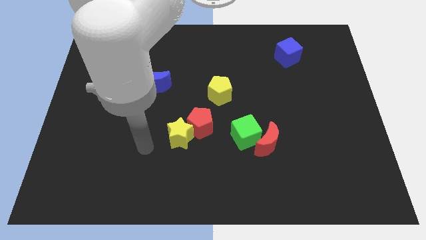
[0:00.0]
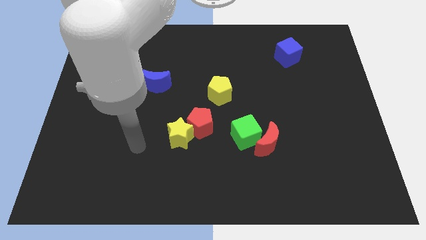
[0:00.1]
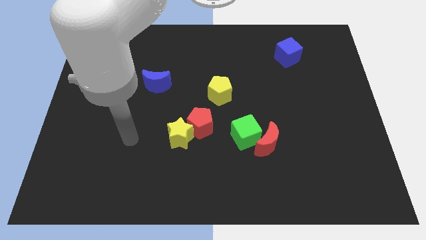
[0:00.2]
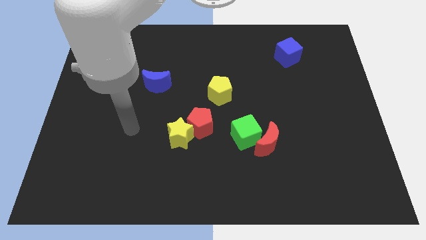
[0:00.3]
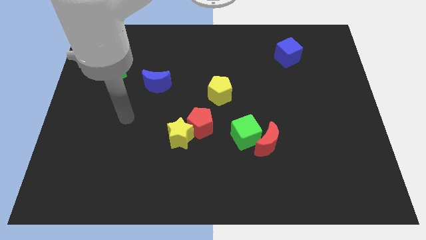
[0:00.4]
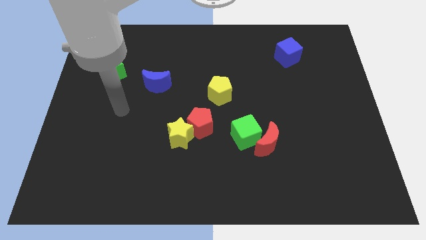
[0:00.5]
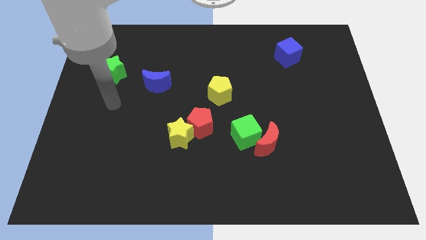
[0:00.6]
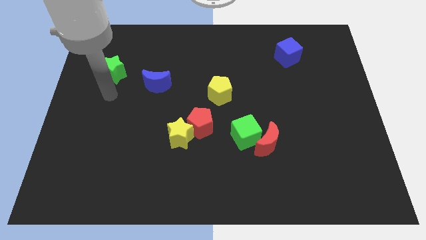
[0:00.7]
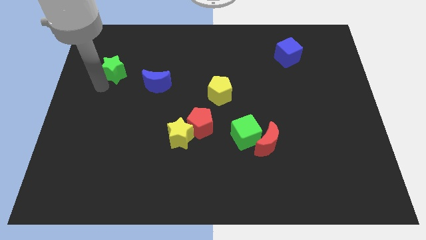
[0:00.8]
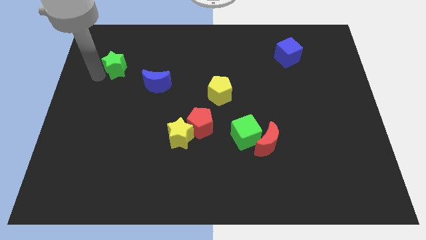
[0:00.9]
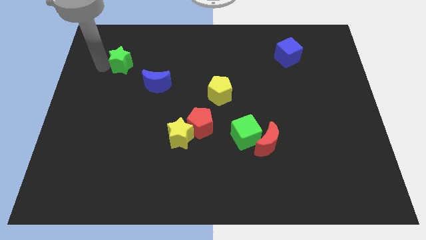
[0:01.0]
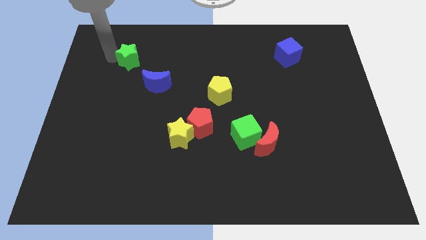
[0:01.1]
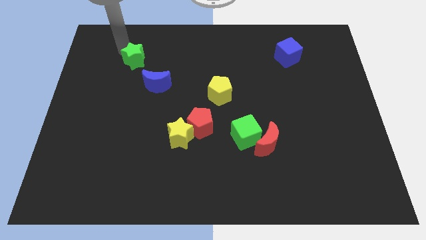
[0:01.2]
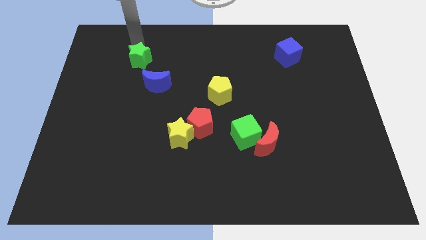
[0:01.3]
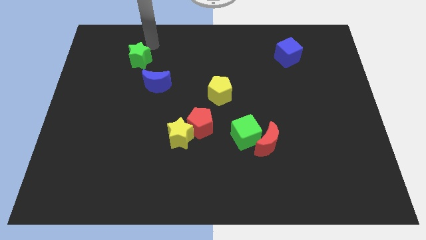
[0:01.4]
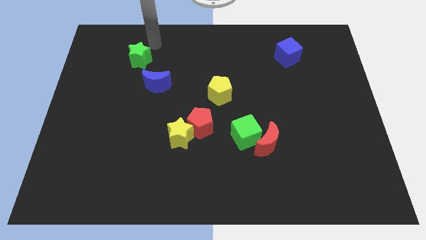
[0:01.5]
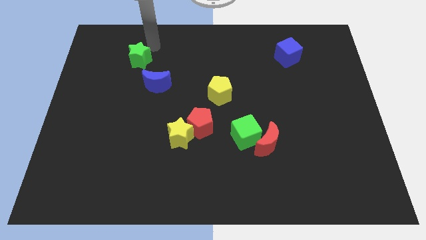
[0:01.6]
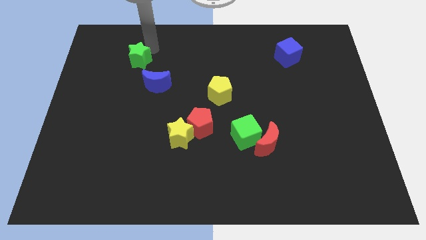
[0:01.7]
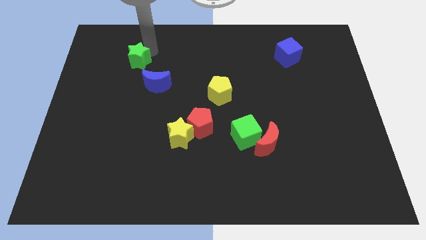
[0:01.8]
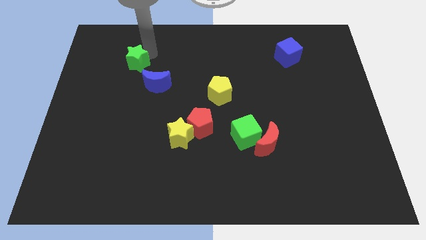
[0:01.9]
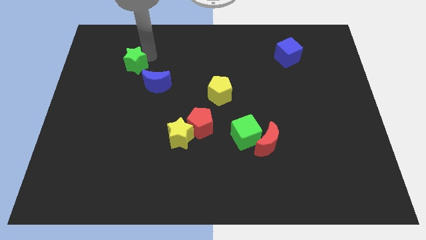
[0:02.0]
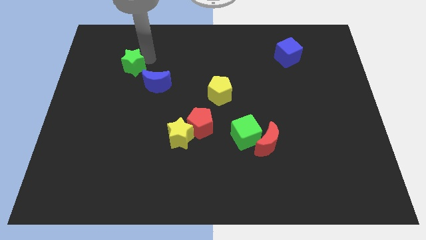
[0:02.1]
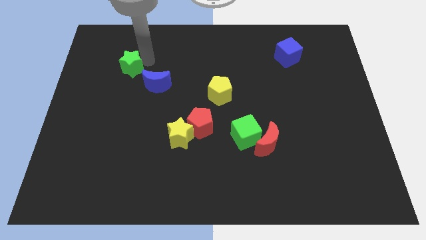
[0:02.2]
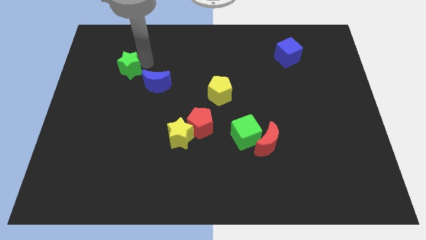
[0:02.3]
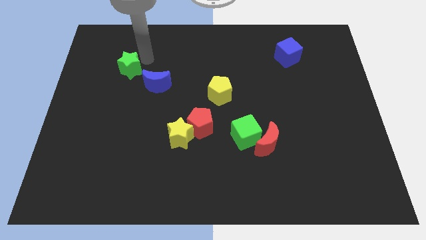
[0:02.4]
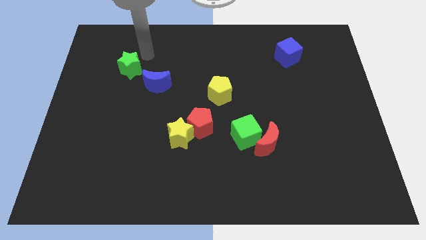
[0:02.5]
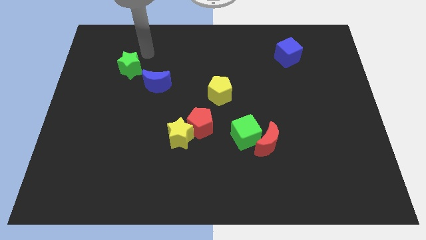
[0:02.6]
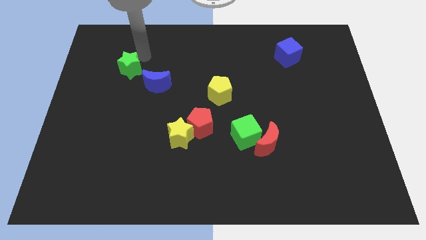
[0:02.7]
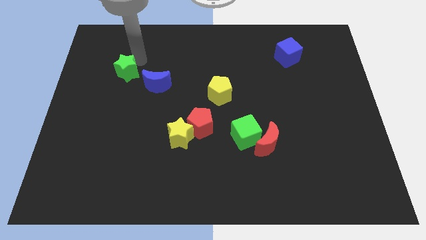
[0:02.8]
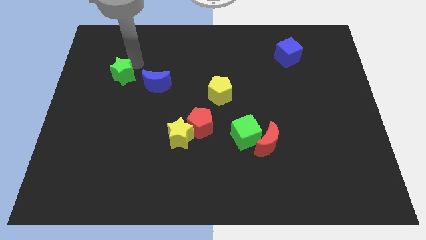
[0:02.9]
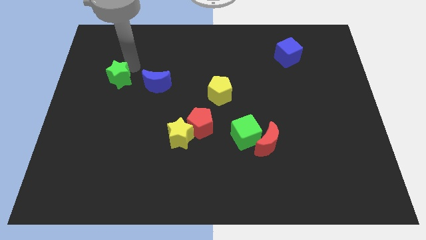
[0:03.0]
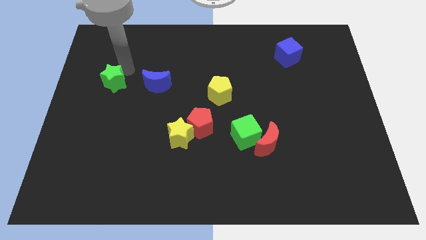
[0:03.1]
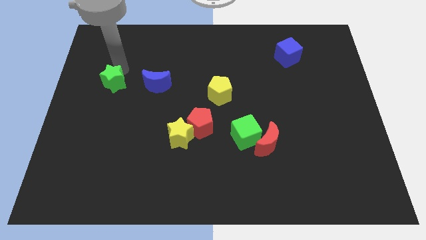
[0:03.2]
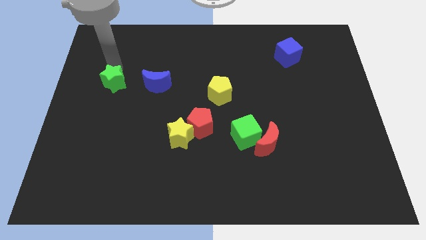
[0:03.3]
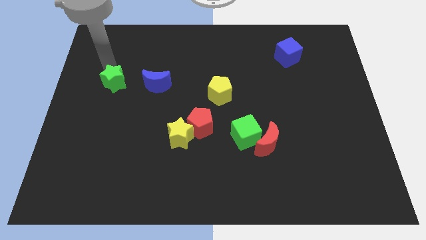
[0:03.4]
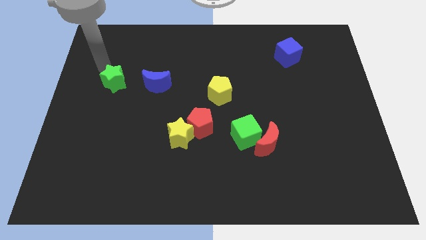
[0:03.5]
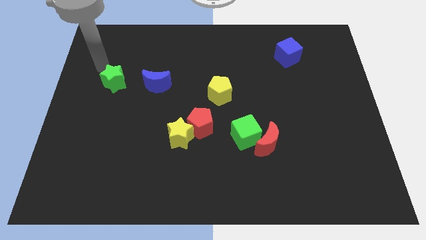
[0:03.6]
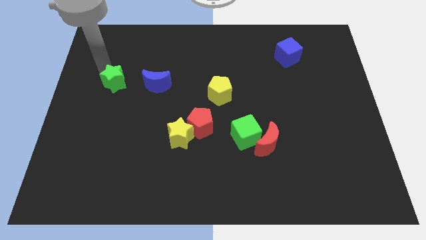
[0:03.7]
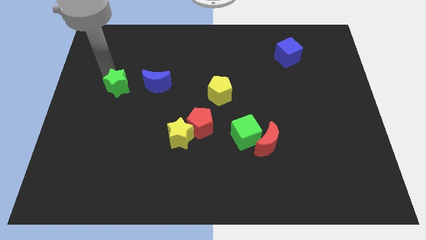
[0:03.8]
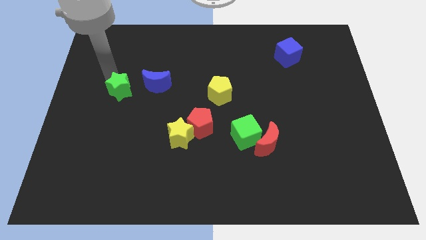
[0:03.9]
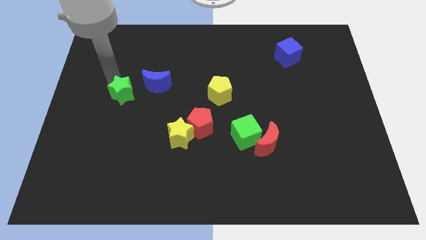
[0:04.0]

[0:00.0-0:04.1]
slide the green star down and then to the right somewhat

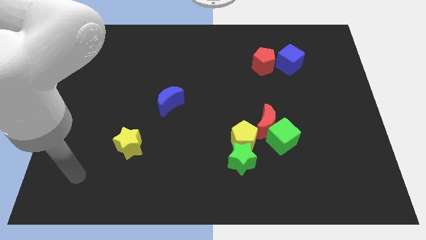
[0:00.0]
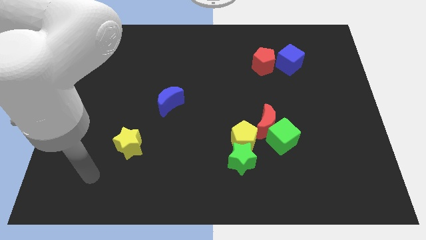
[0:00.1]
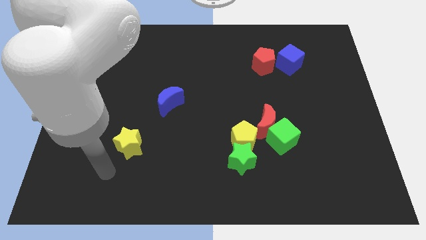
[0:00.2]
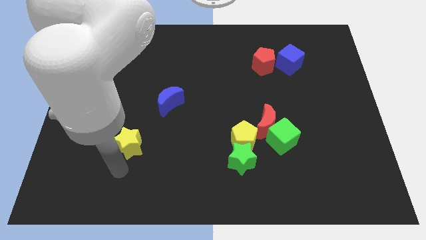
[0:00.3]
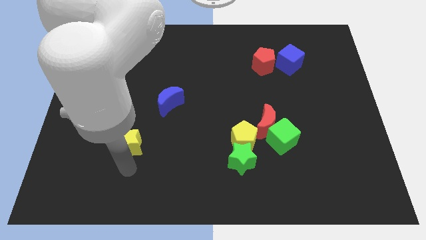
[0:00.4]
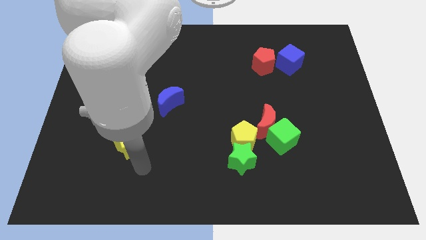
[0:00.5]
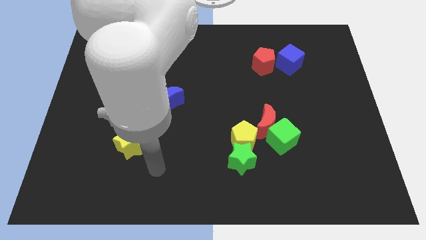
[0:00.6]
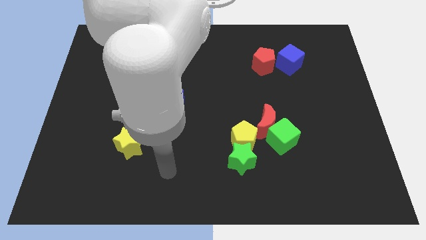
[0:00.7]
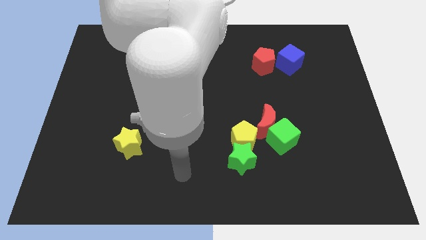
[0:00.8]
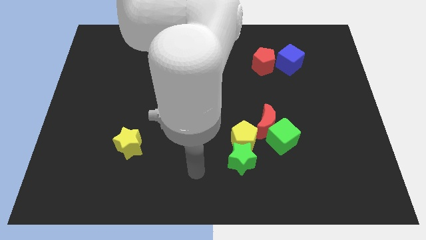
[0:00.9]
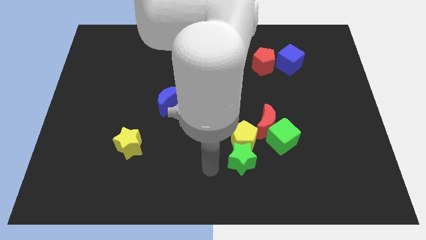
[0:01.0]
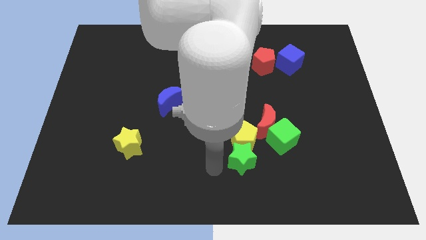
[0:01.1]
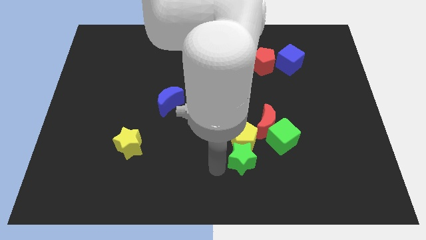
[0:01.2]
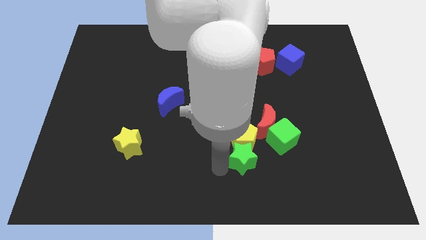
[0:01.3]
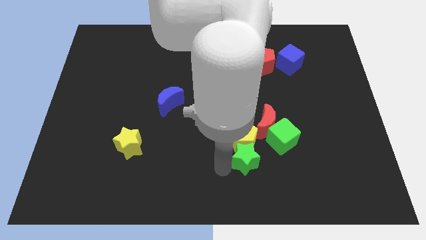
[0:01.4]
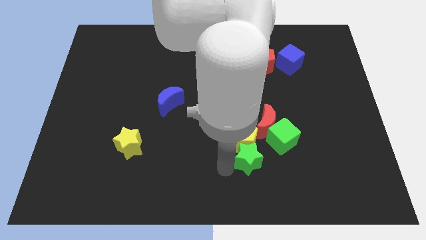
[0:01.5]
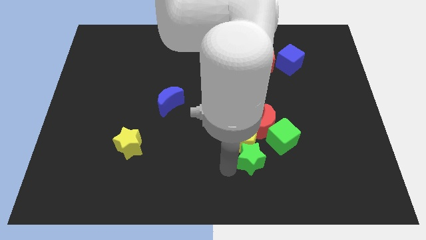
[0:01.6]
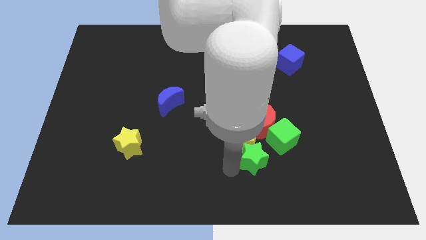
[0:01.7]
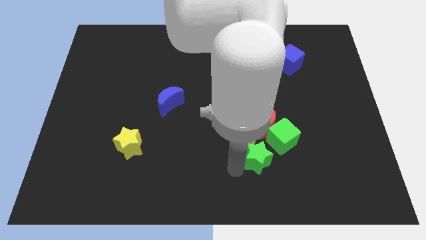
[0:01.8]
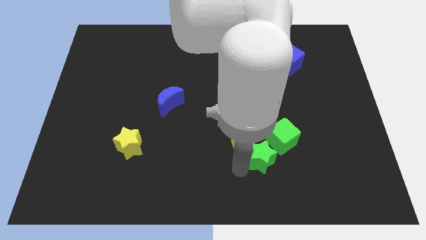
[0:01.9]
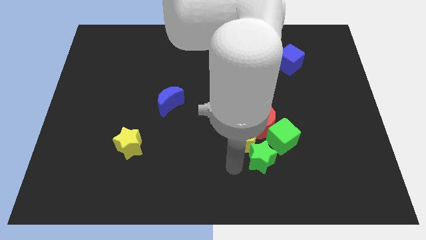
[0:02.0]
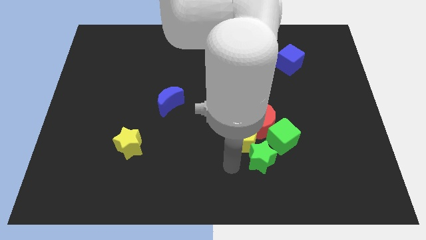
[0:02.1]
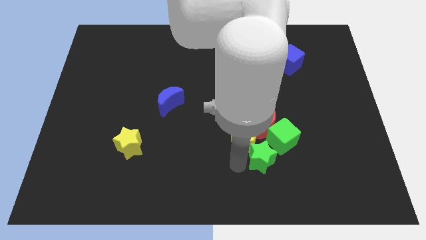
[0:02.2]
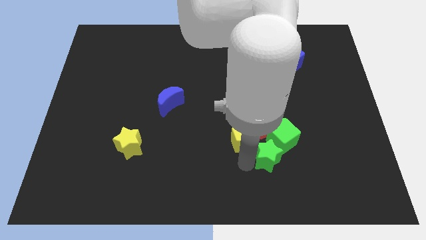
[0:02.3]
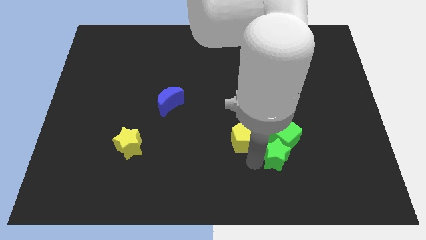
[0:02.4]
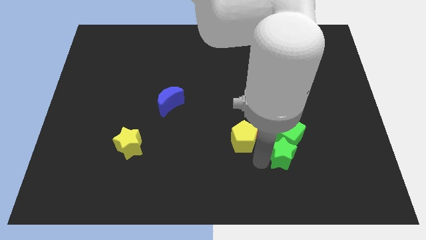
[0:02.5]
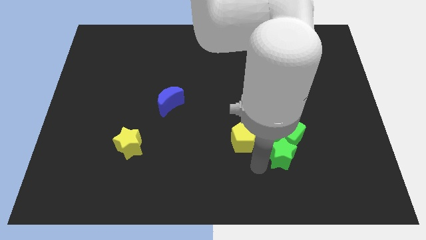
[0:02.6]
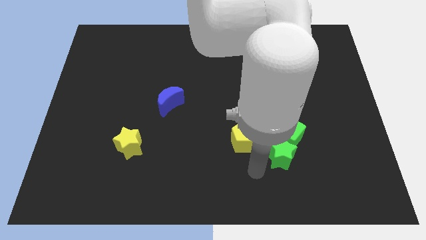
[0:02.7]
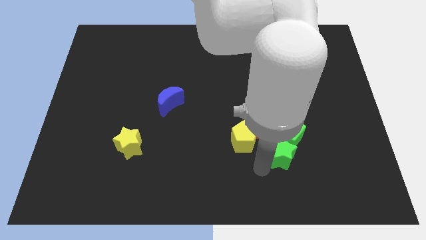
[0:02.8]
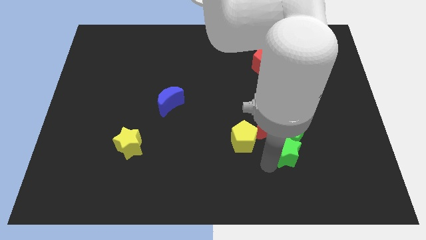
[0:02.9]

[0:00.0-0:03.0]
slide the green star slightly up and right

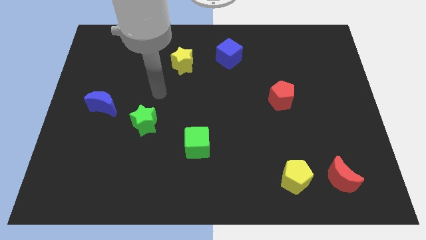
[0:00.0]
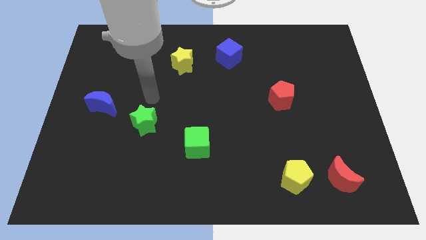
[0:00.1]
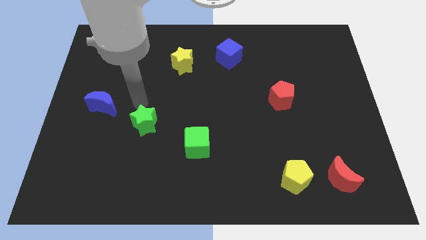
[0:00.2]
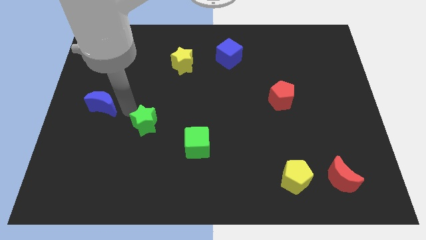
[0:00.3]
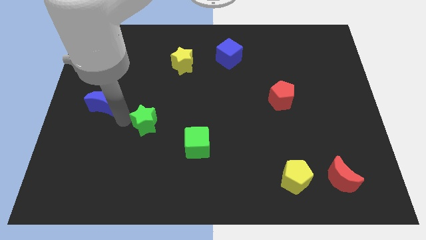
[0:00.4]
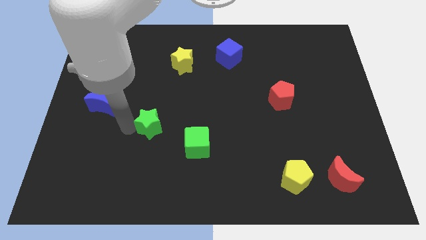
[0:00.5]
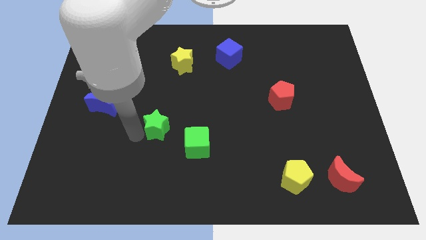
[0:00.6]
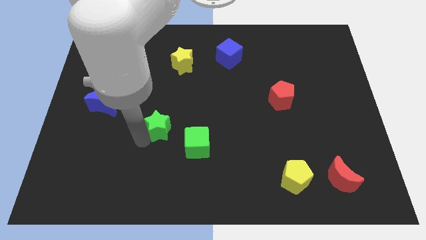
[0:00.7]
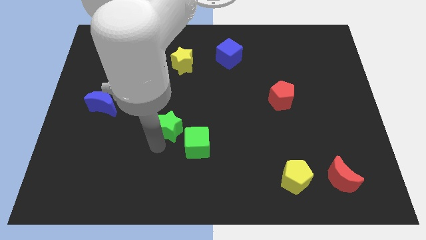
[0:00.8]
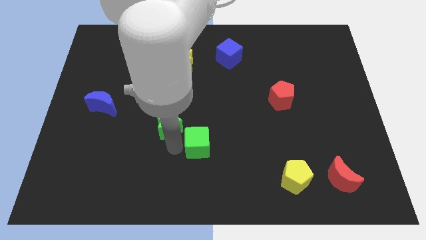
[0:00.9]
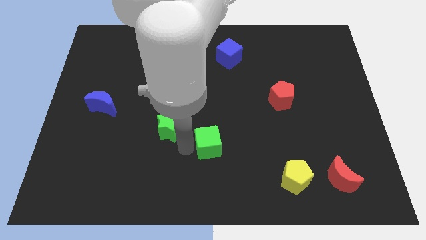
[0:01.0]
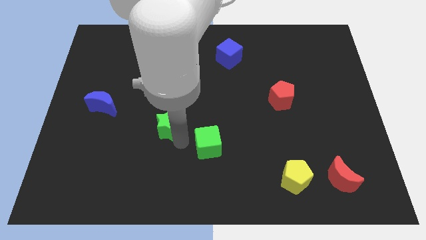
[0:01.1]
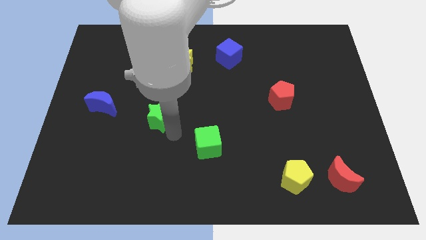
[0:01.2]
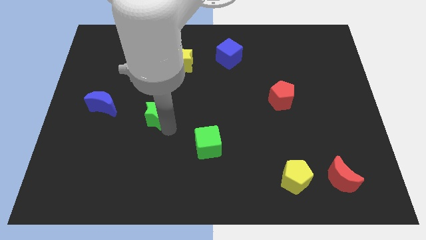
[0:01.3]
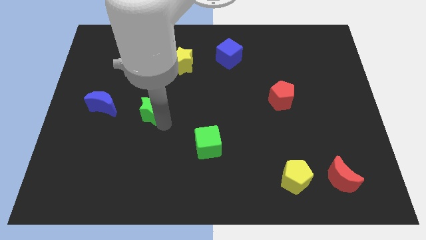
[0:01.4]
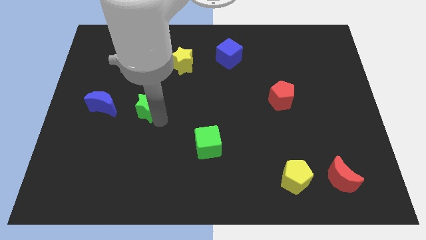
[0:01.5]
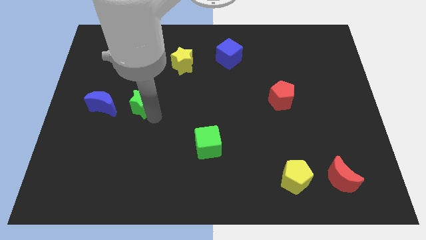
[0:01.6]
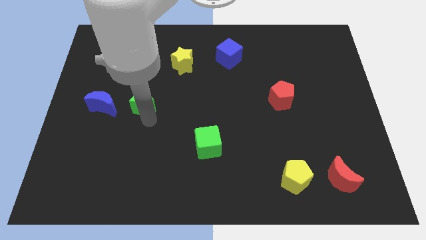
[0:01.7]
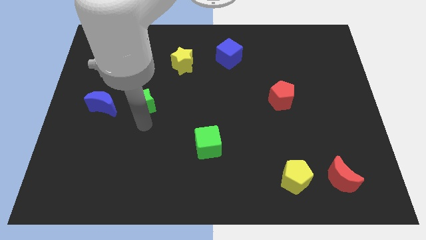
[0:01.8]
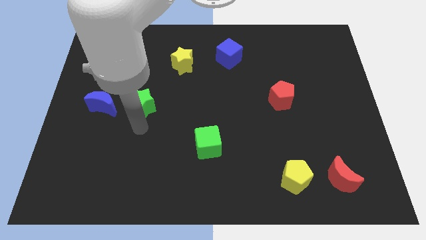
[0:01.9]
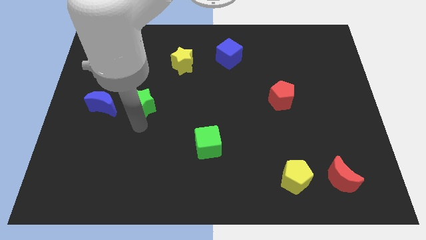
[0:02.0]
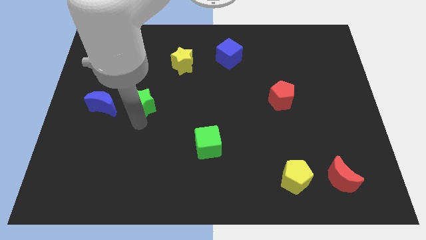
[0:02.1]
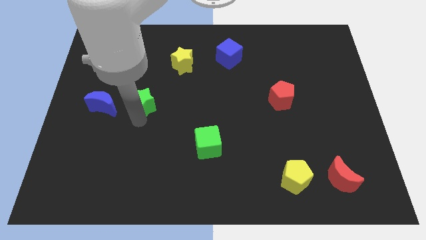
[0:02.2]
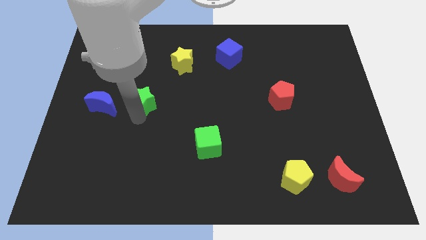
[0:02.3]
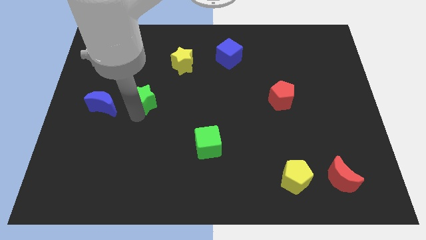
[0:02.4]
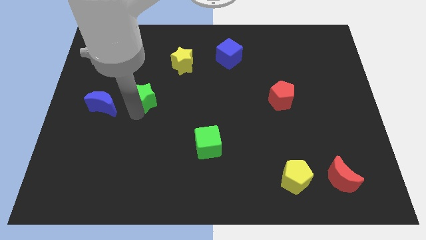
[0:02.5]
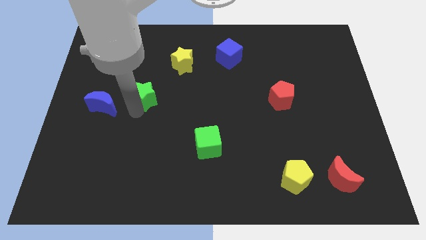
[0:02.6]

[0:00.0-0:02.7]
move the green star a little bit up
